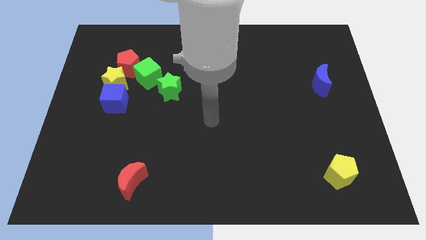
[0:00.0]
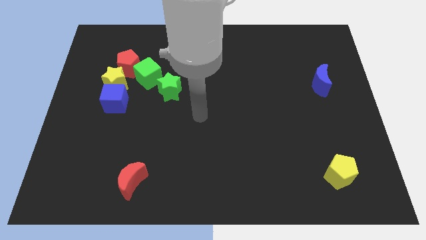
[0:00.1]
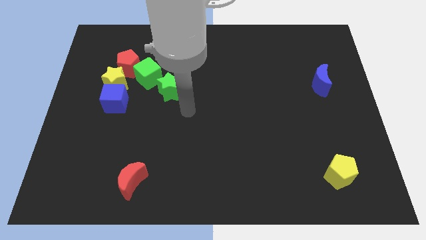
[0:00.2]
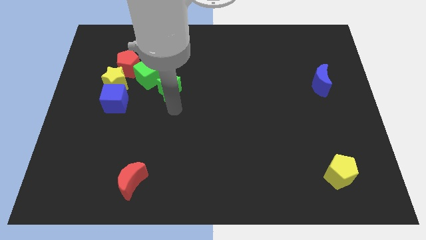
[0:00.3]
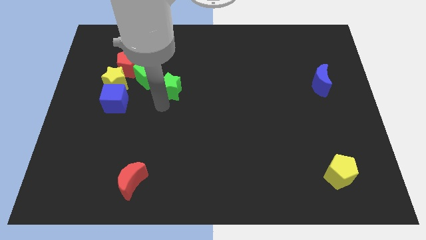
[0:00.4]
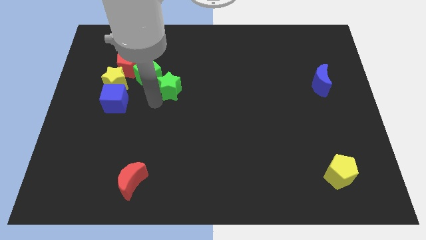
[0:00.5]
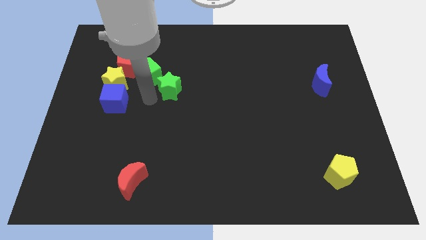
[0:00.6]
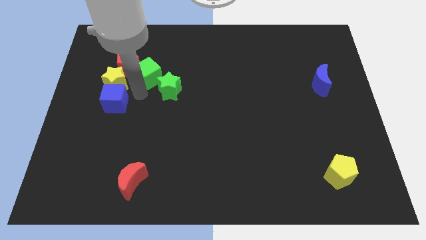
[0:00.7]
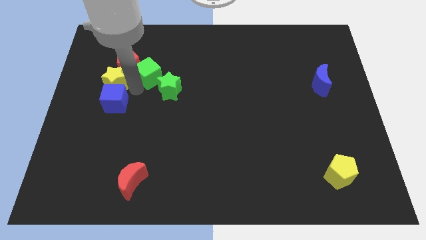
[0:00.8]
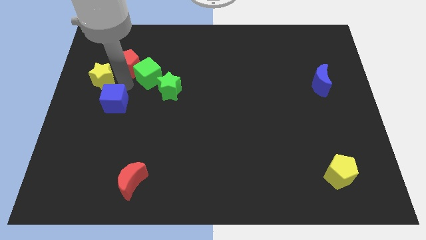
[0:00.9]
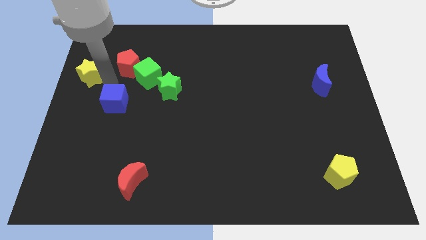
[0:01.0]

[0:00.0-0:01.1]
separate the blue cube from the yellow star

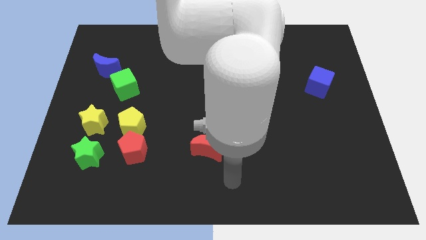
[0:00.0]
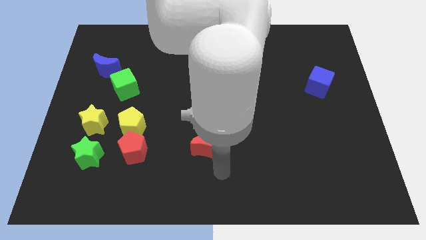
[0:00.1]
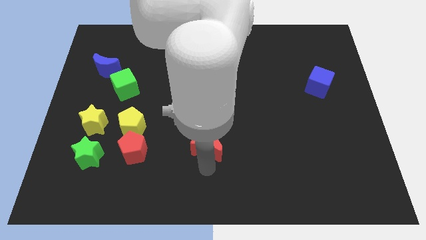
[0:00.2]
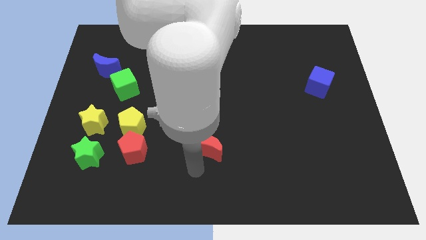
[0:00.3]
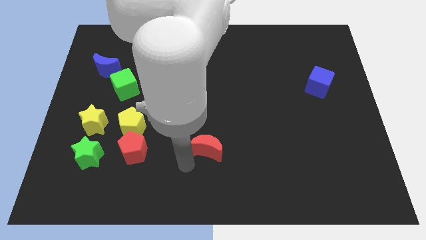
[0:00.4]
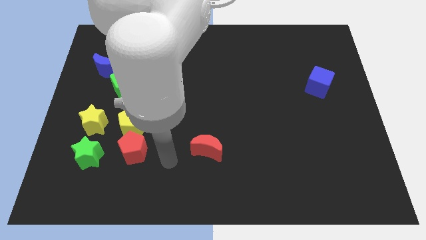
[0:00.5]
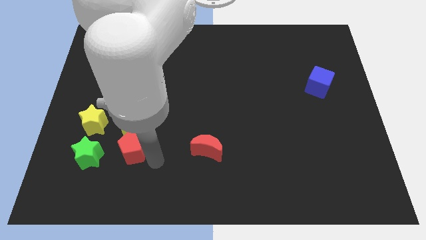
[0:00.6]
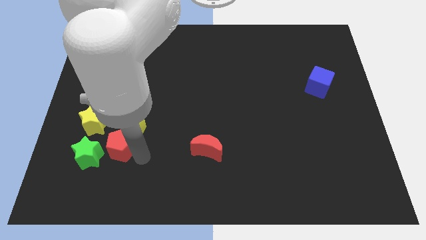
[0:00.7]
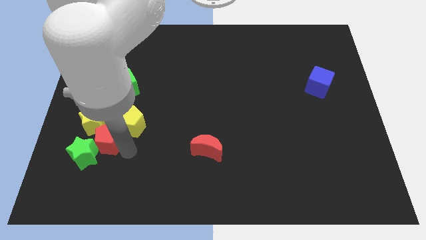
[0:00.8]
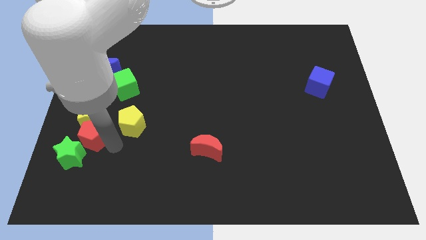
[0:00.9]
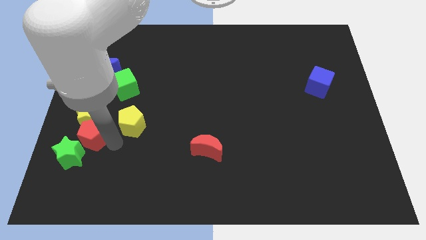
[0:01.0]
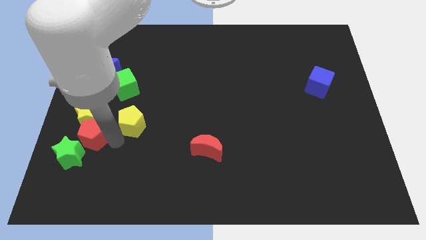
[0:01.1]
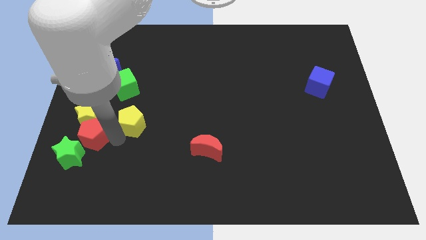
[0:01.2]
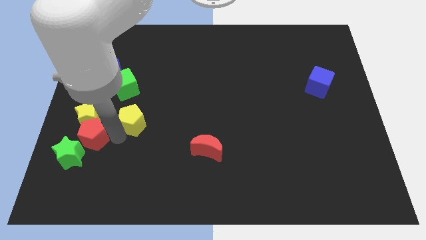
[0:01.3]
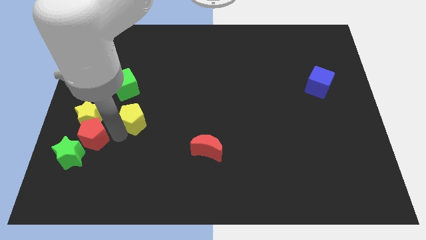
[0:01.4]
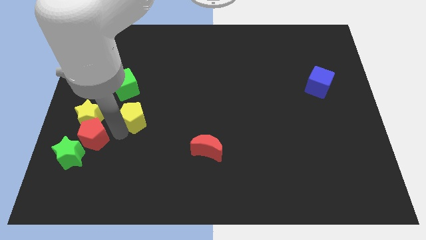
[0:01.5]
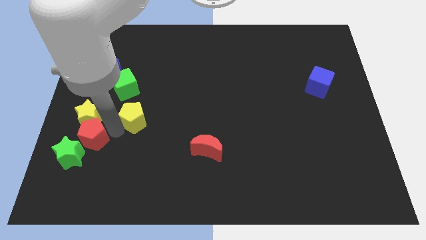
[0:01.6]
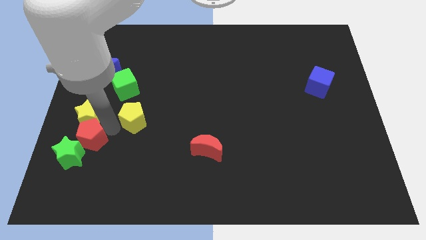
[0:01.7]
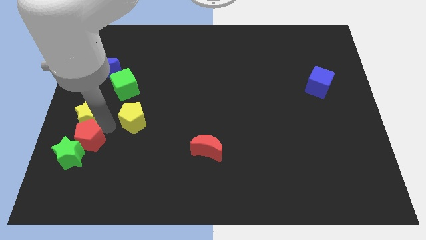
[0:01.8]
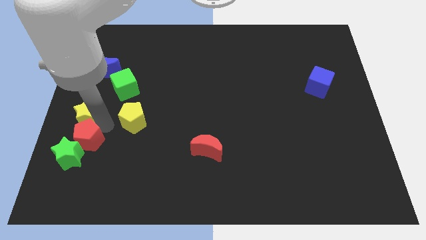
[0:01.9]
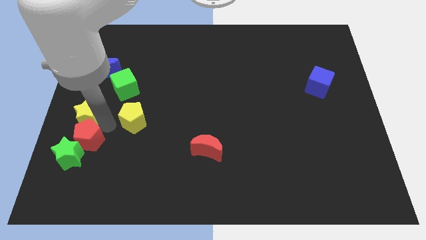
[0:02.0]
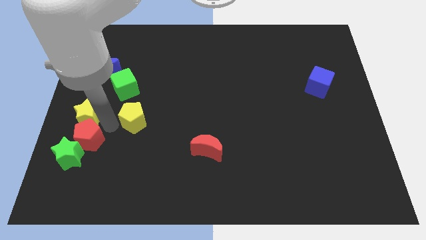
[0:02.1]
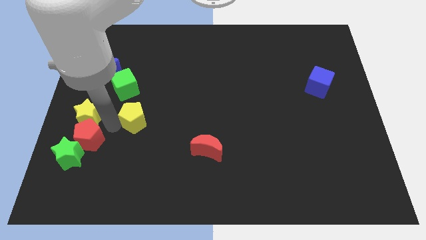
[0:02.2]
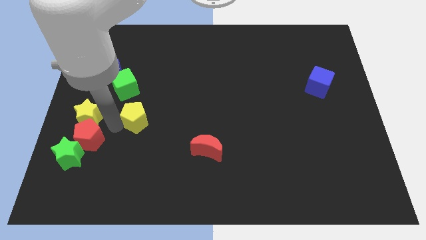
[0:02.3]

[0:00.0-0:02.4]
separate the yellow pentagon from the red pentagon and yellow star

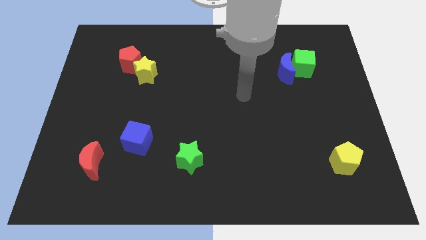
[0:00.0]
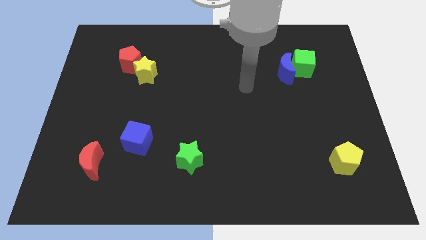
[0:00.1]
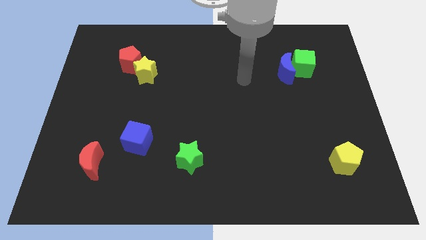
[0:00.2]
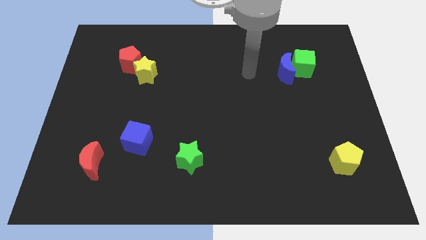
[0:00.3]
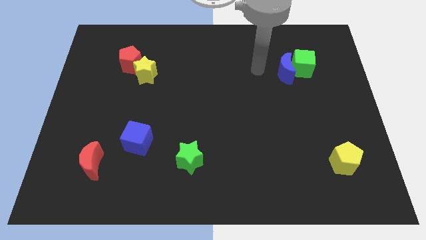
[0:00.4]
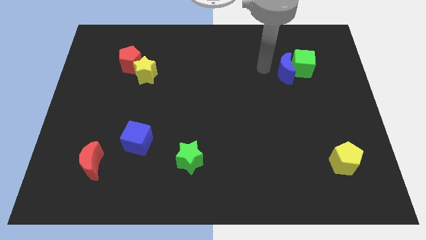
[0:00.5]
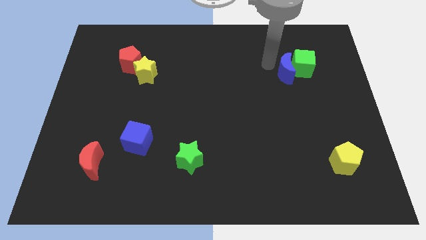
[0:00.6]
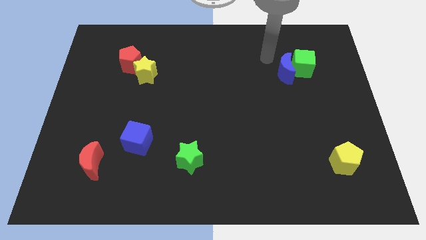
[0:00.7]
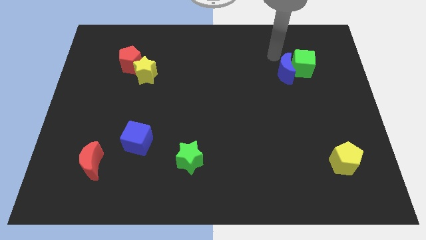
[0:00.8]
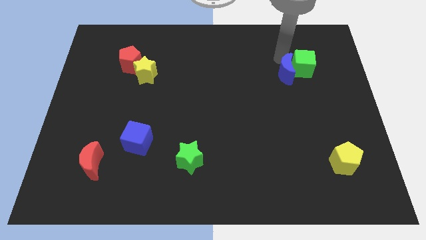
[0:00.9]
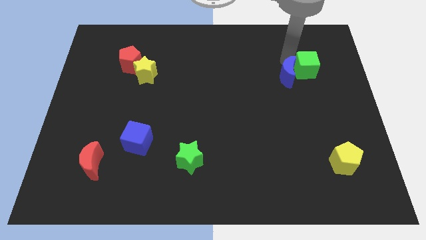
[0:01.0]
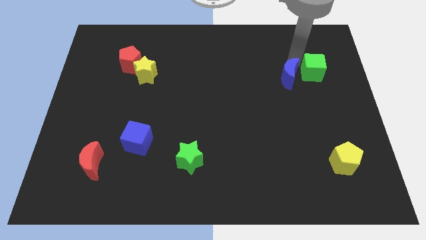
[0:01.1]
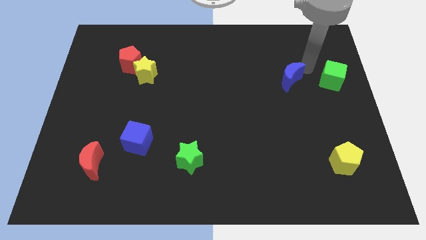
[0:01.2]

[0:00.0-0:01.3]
pull the blue moon apart from the green cube

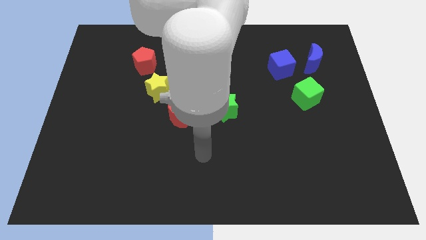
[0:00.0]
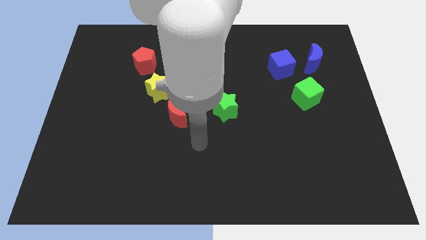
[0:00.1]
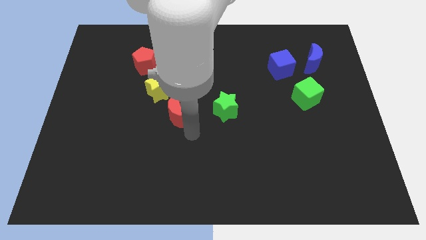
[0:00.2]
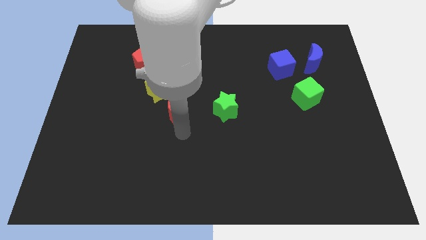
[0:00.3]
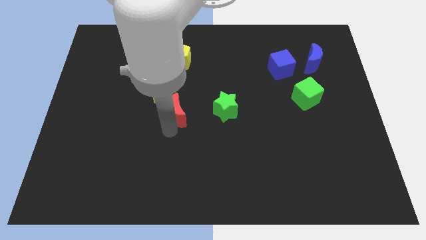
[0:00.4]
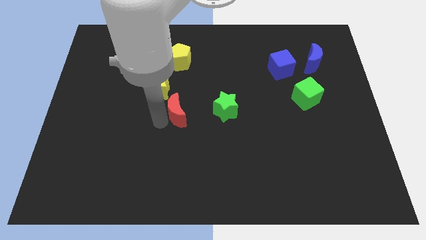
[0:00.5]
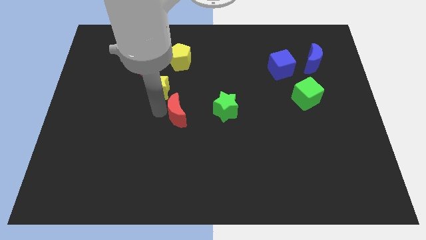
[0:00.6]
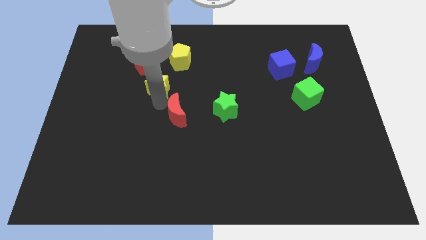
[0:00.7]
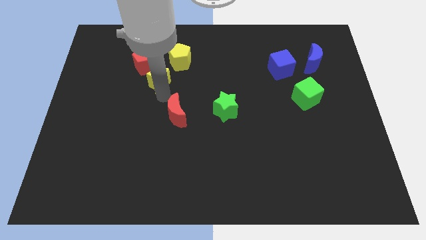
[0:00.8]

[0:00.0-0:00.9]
move the red moon away from the yellow star

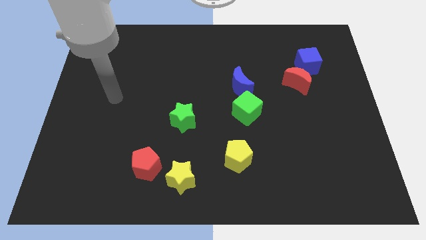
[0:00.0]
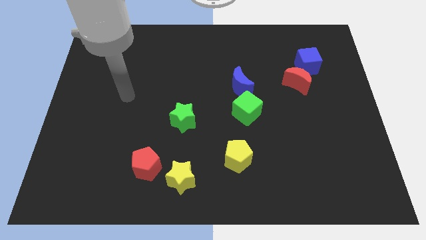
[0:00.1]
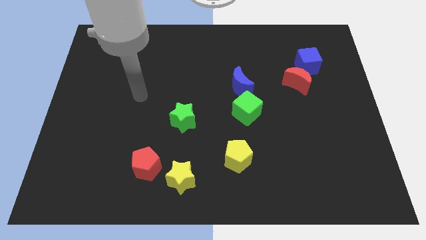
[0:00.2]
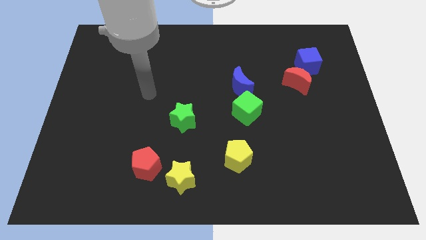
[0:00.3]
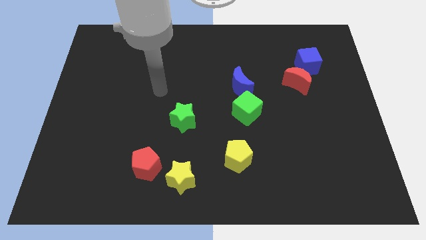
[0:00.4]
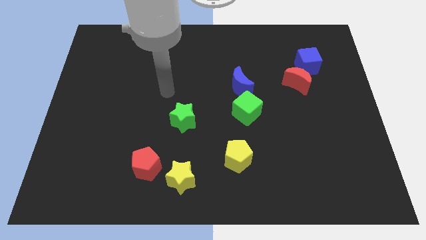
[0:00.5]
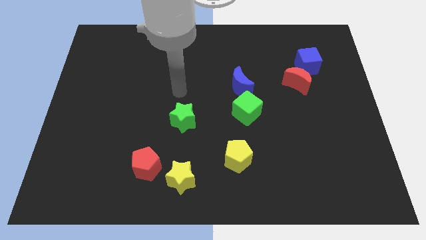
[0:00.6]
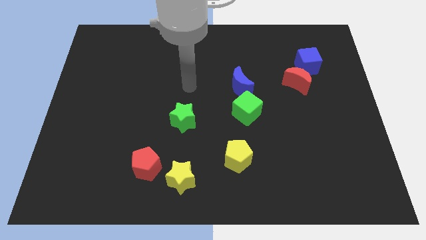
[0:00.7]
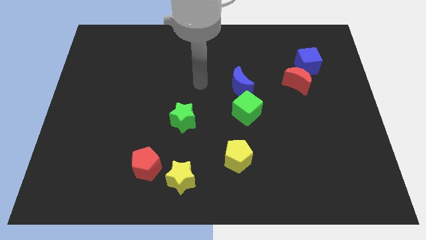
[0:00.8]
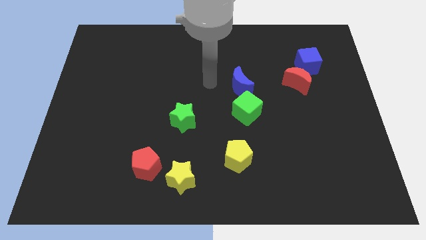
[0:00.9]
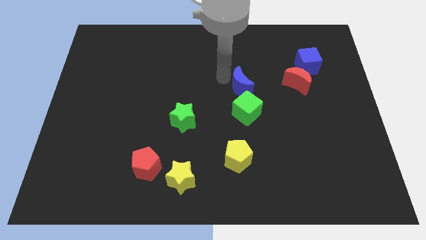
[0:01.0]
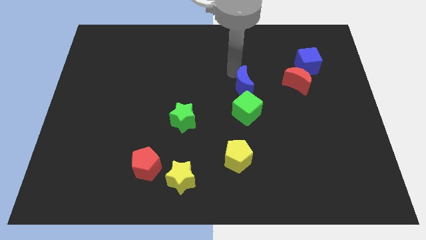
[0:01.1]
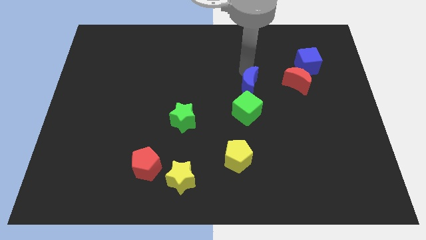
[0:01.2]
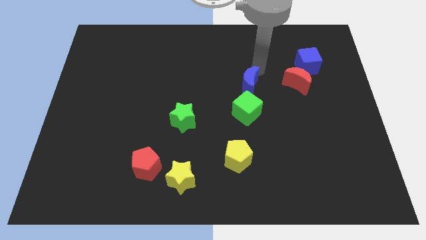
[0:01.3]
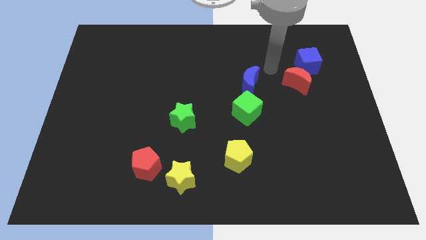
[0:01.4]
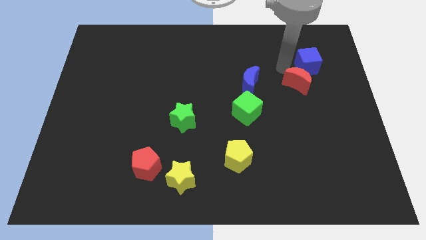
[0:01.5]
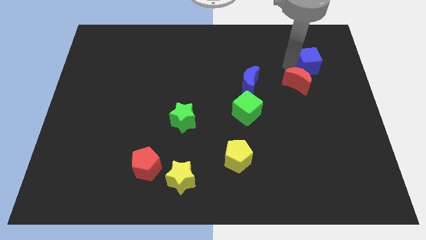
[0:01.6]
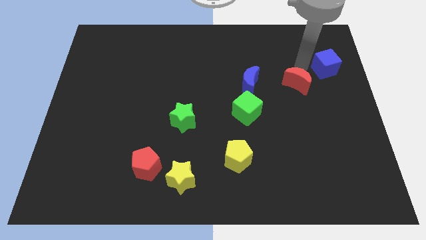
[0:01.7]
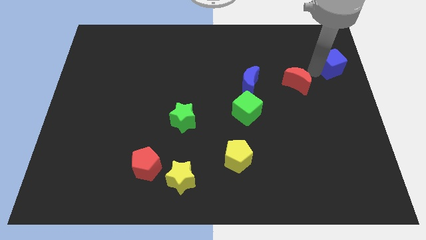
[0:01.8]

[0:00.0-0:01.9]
pull the red moon apart from the blue cube

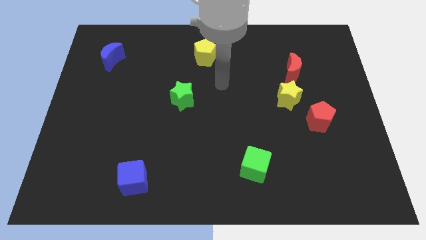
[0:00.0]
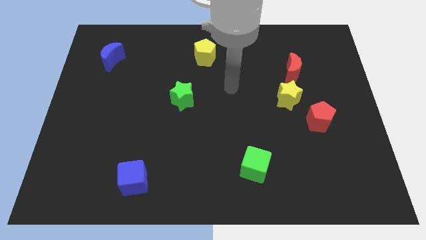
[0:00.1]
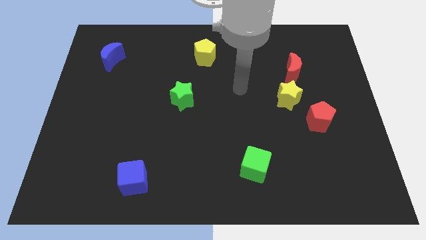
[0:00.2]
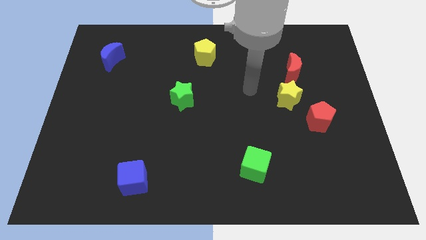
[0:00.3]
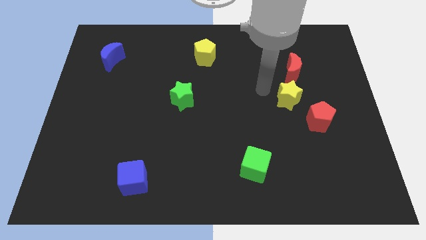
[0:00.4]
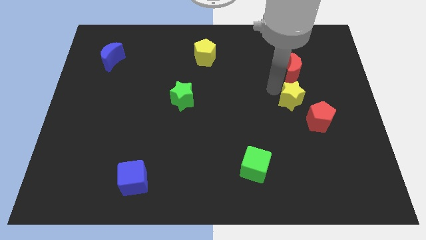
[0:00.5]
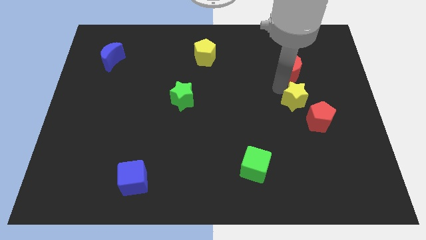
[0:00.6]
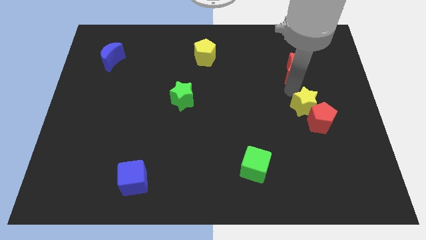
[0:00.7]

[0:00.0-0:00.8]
pull the red moon apart from the yellow star

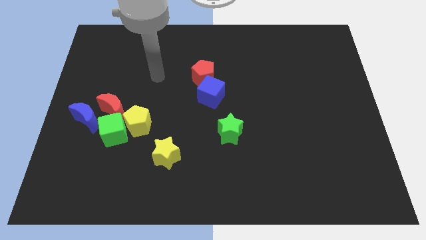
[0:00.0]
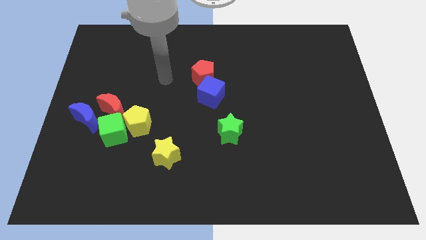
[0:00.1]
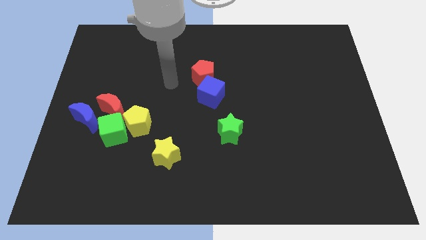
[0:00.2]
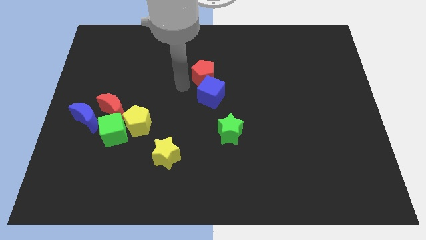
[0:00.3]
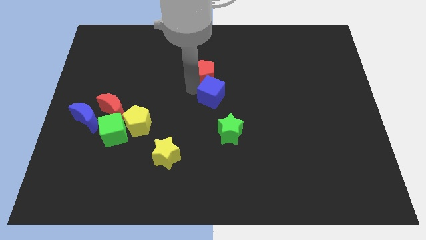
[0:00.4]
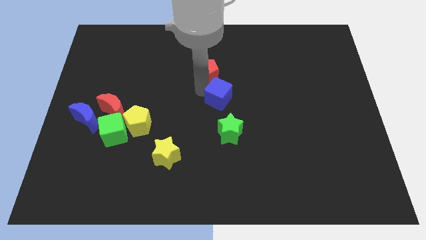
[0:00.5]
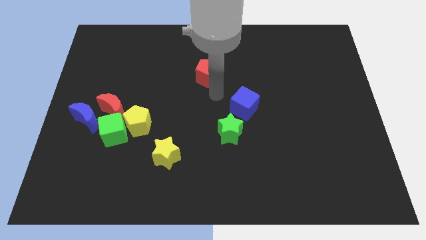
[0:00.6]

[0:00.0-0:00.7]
move the red pentagon away from the blue cube
